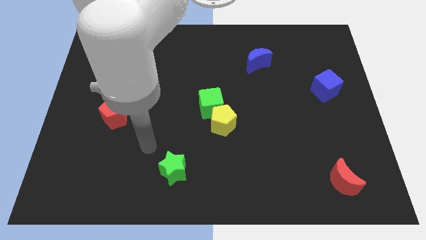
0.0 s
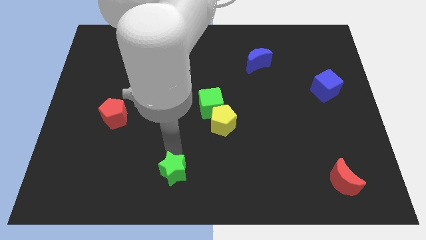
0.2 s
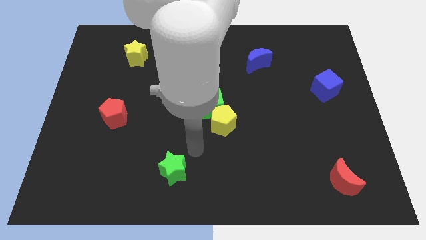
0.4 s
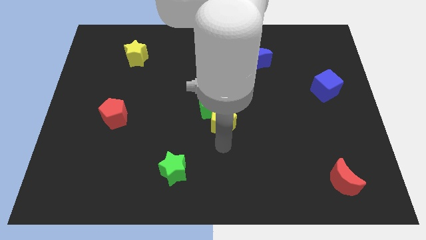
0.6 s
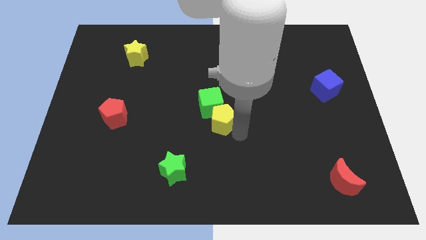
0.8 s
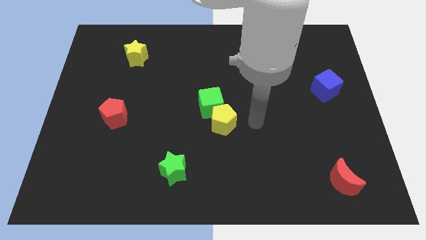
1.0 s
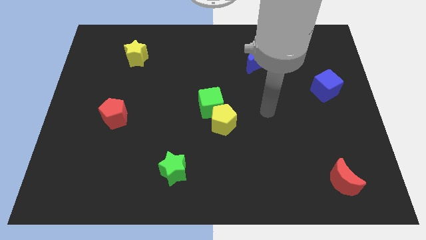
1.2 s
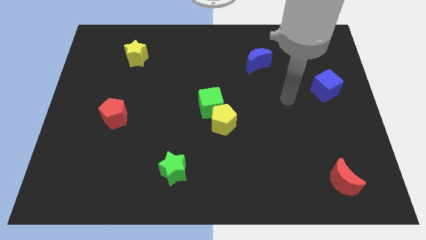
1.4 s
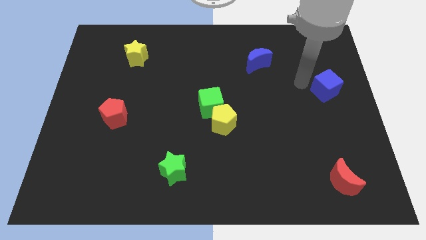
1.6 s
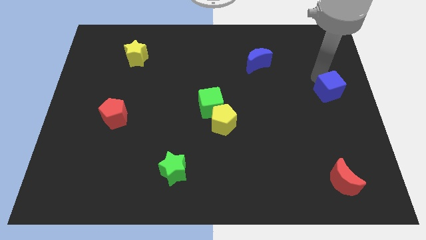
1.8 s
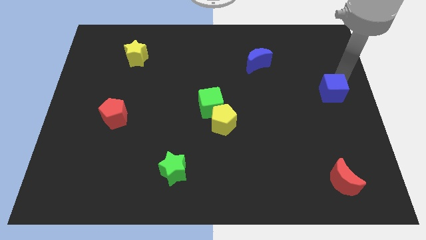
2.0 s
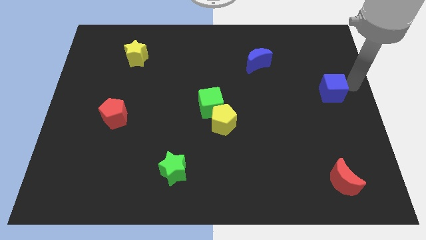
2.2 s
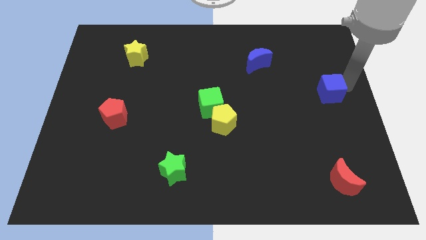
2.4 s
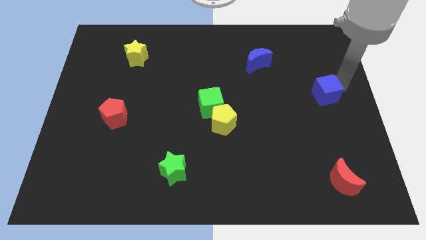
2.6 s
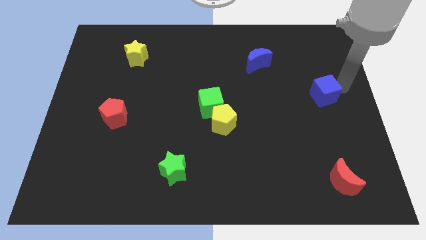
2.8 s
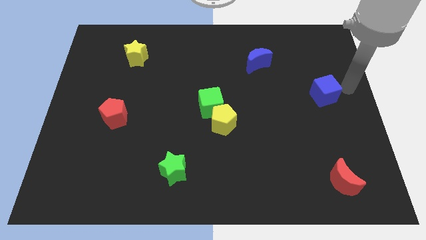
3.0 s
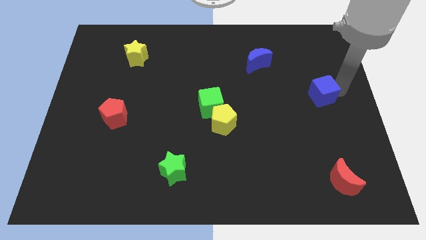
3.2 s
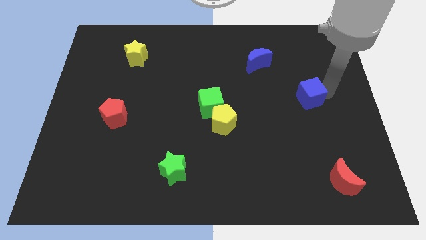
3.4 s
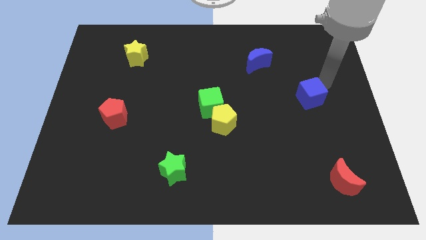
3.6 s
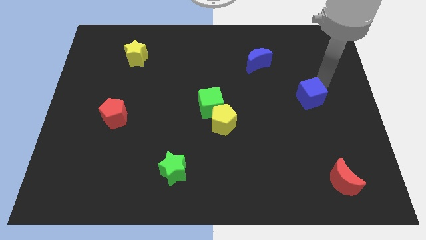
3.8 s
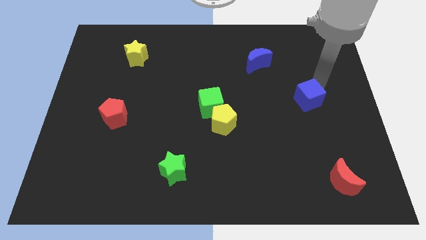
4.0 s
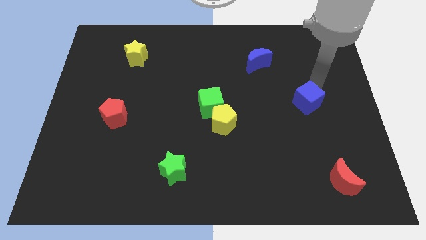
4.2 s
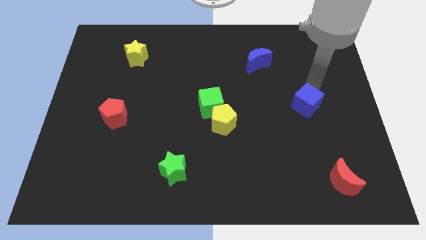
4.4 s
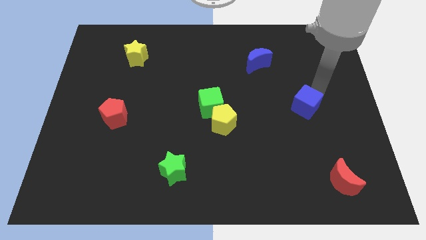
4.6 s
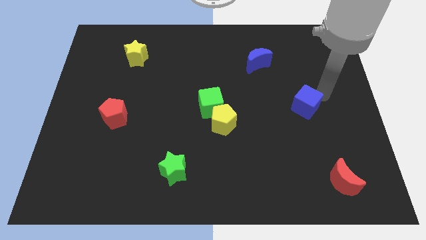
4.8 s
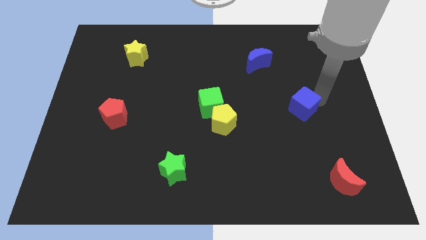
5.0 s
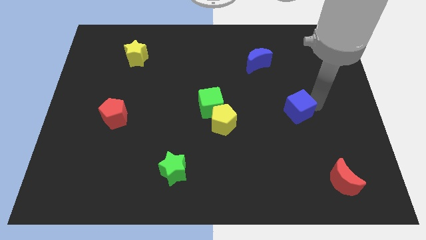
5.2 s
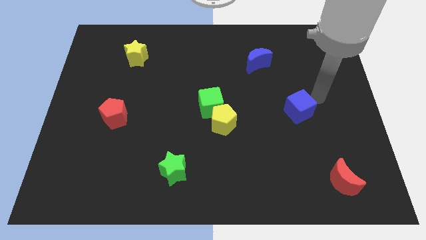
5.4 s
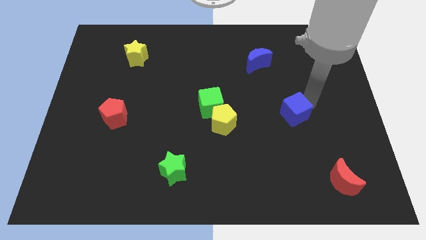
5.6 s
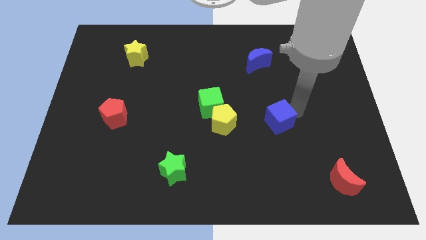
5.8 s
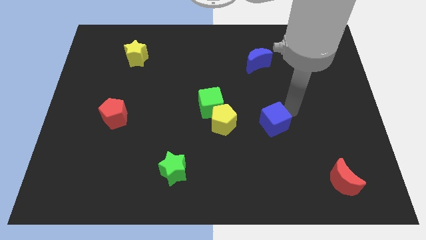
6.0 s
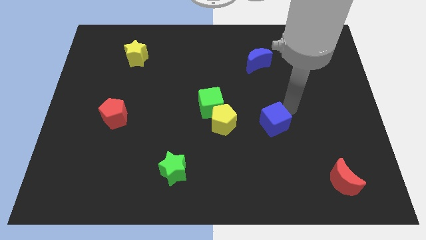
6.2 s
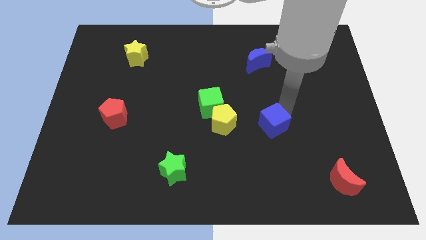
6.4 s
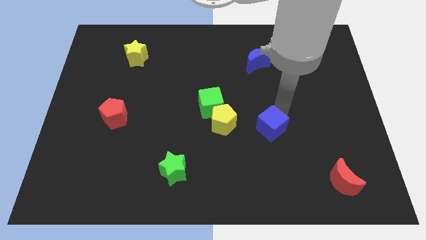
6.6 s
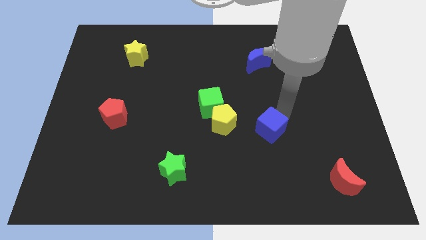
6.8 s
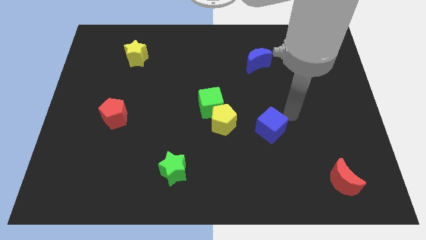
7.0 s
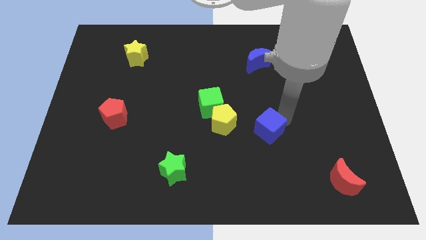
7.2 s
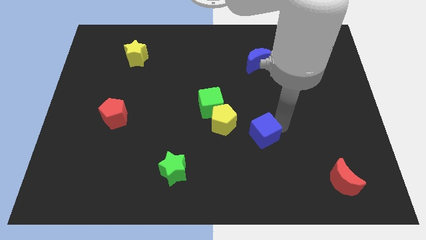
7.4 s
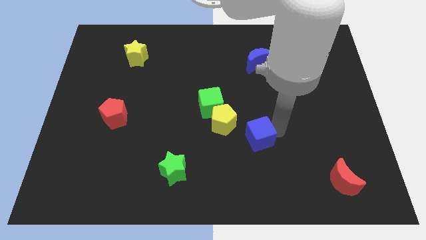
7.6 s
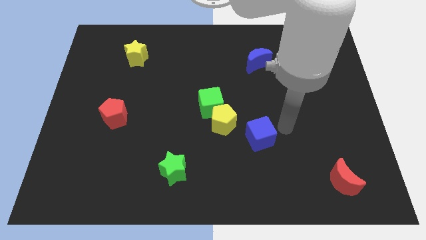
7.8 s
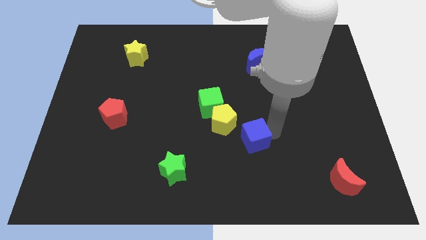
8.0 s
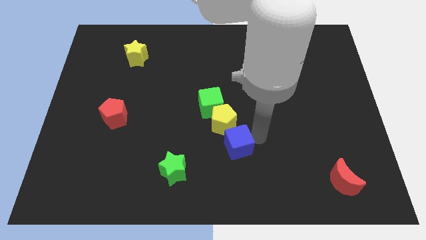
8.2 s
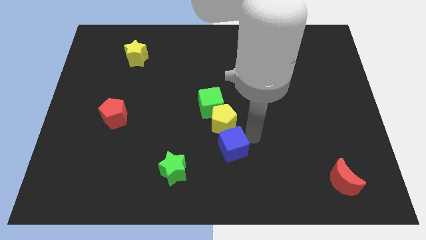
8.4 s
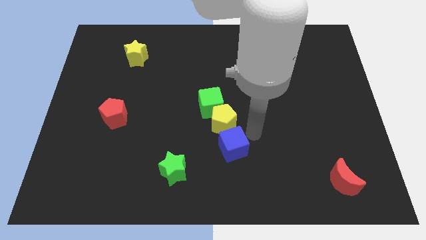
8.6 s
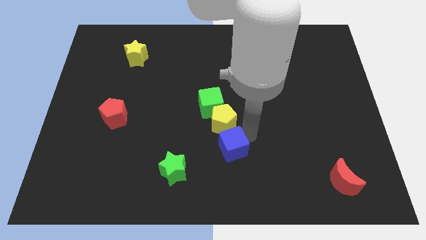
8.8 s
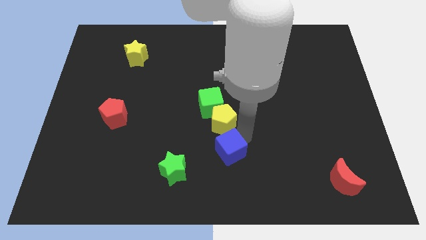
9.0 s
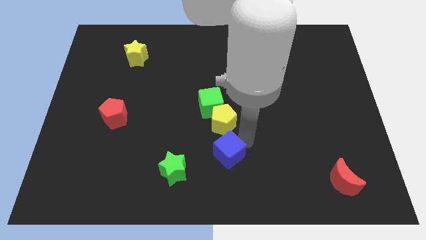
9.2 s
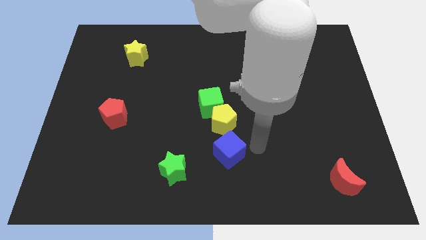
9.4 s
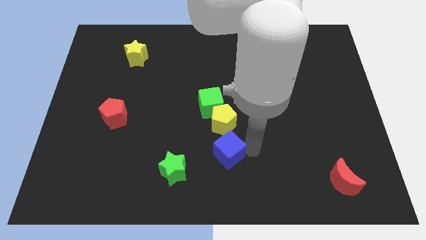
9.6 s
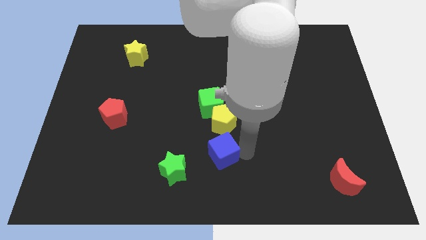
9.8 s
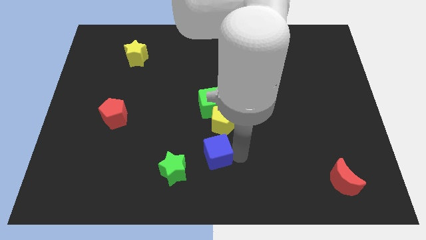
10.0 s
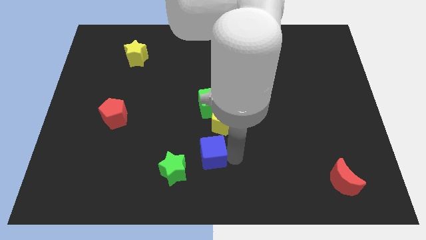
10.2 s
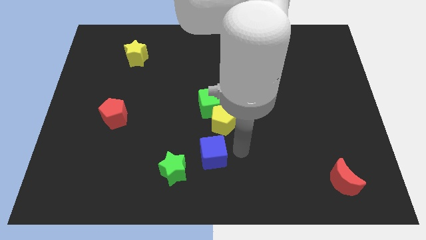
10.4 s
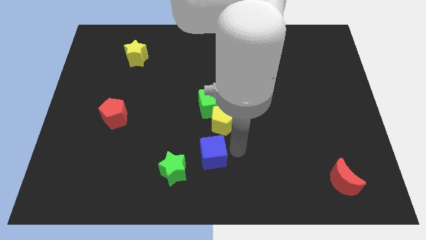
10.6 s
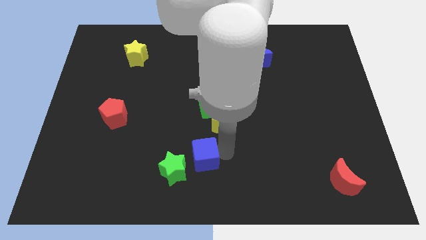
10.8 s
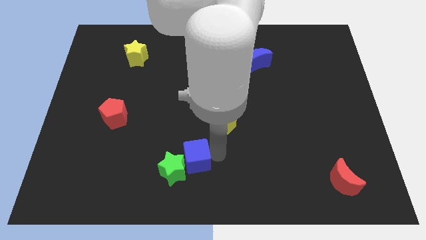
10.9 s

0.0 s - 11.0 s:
slide the blue cube next to the green star

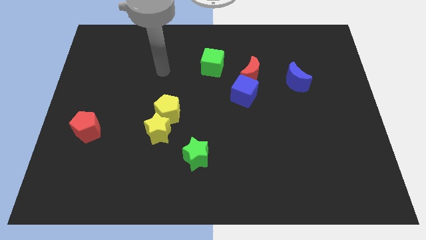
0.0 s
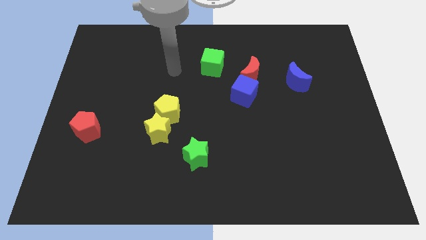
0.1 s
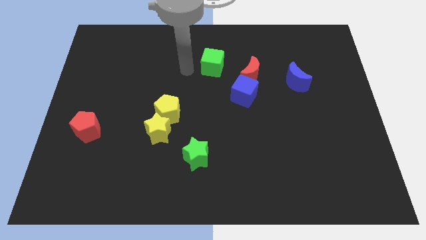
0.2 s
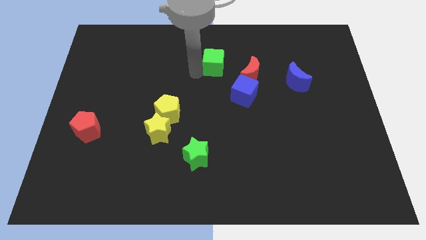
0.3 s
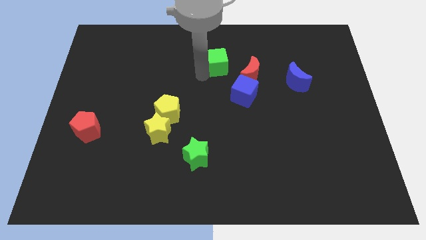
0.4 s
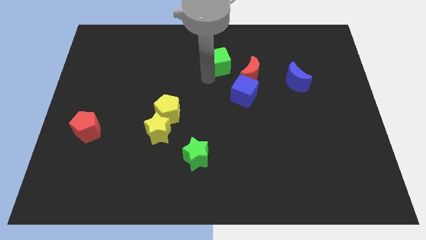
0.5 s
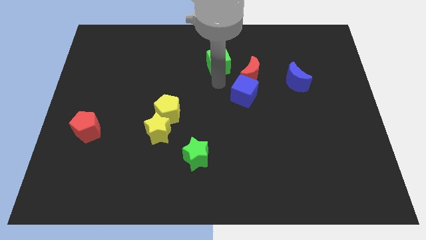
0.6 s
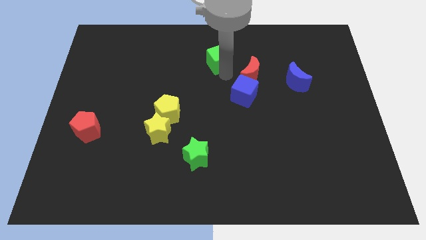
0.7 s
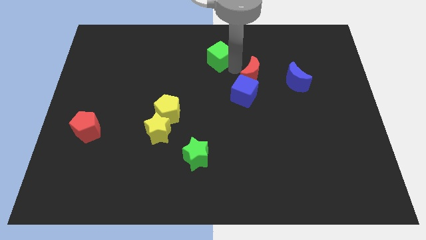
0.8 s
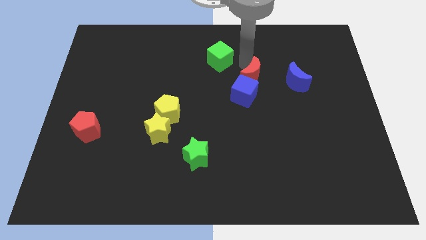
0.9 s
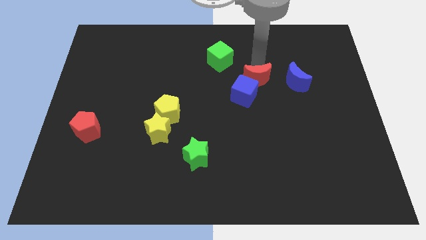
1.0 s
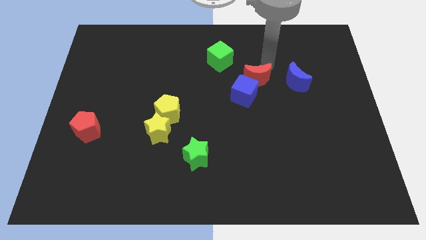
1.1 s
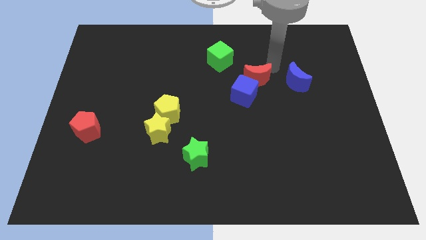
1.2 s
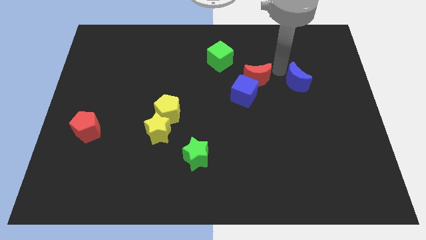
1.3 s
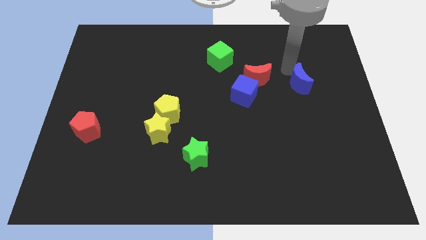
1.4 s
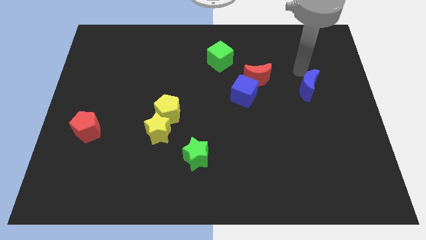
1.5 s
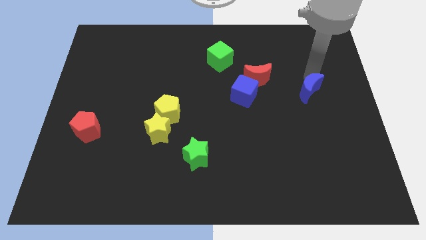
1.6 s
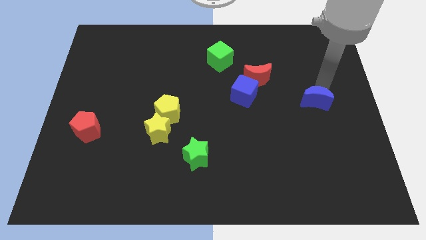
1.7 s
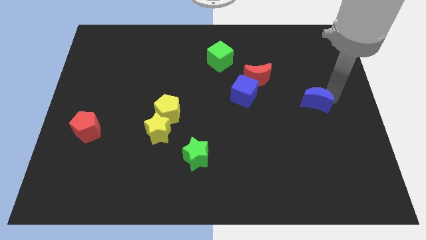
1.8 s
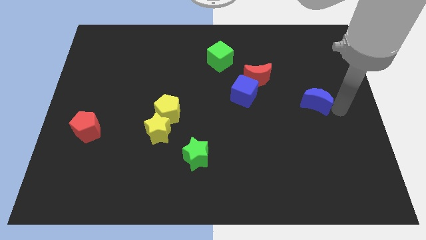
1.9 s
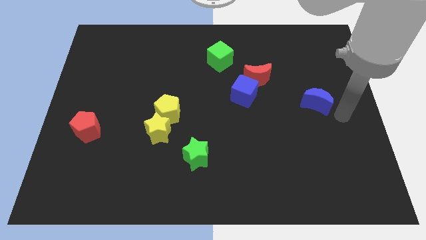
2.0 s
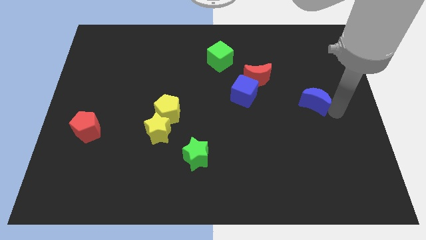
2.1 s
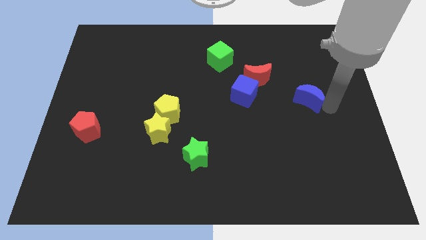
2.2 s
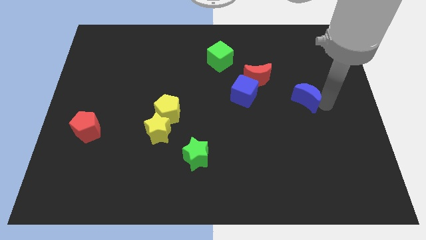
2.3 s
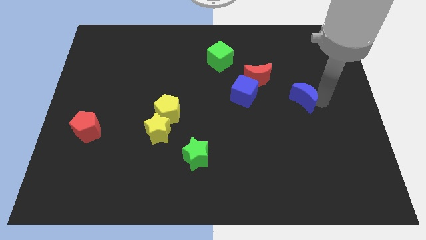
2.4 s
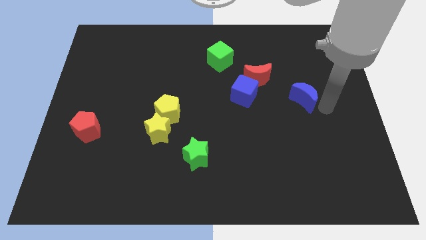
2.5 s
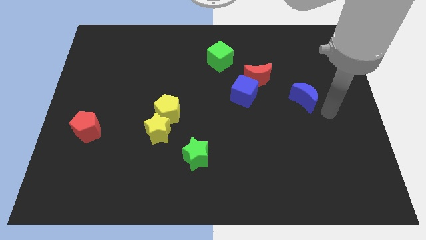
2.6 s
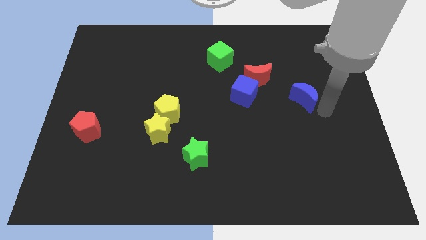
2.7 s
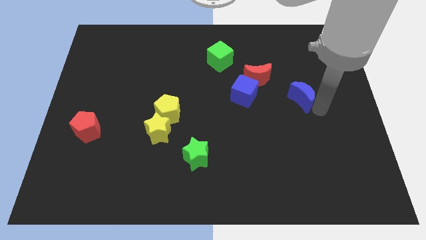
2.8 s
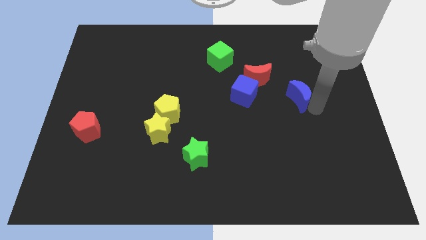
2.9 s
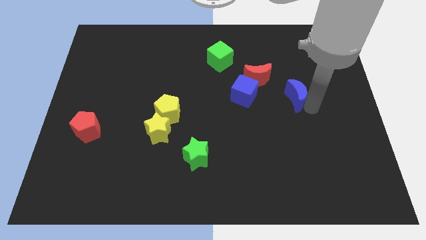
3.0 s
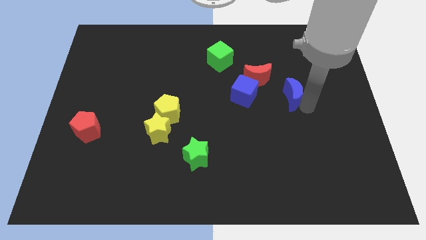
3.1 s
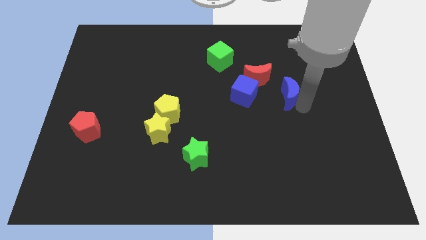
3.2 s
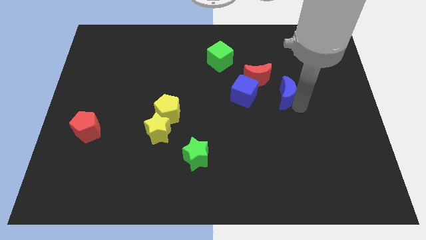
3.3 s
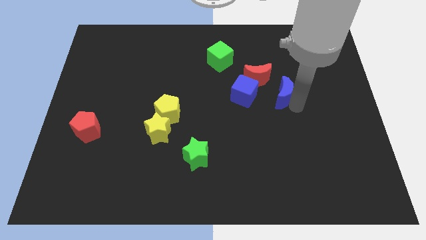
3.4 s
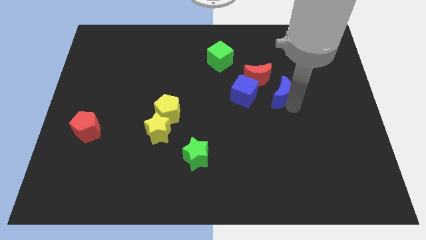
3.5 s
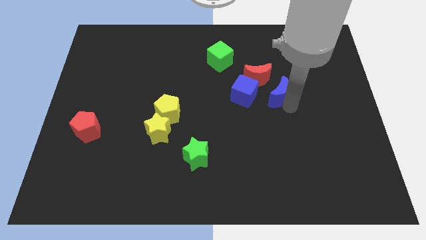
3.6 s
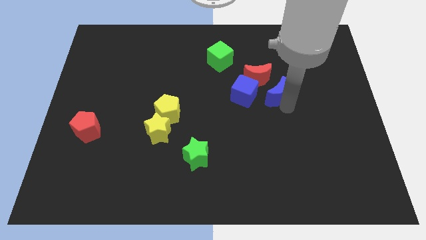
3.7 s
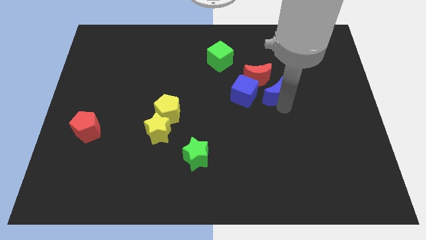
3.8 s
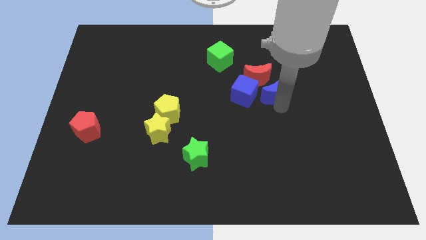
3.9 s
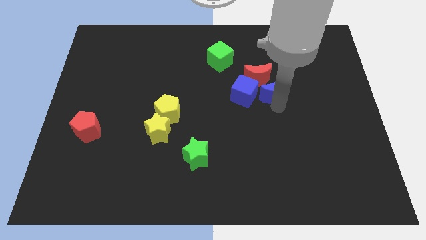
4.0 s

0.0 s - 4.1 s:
put the blue moon next to the red moon
